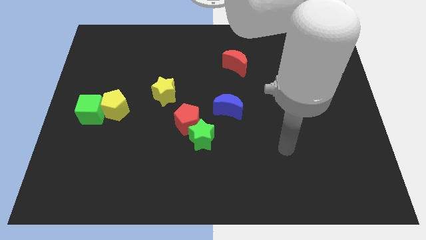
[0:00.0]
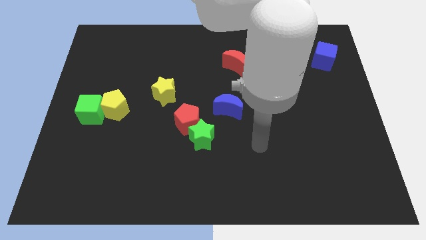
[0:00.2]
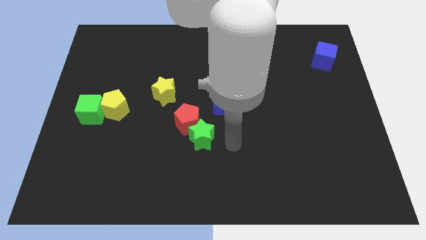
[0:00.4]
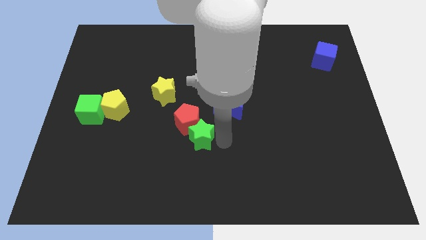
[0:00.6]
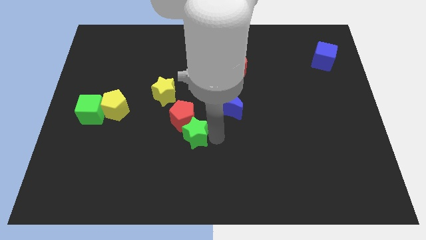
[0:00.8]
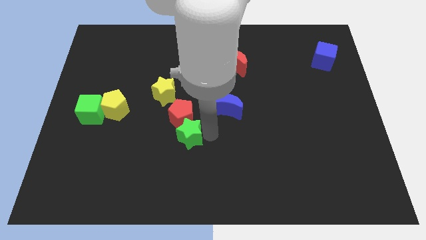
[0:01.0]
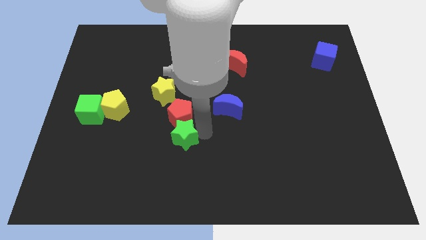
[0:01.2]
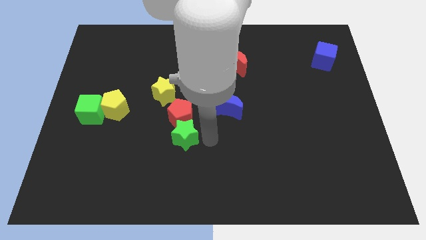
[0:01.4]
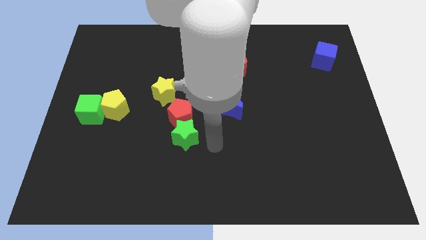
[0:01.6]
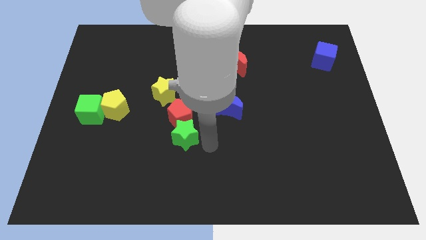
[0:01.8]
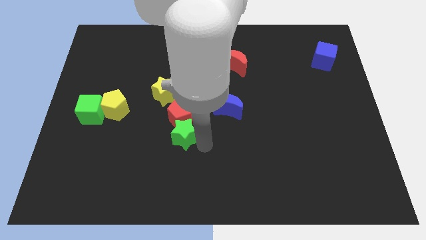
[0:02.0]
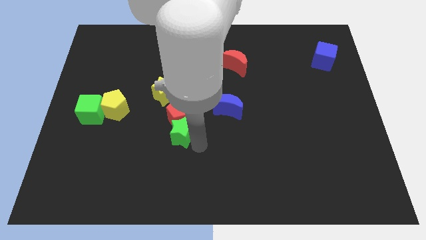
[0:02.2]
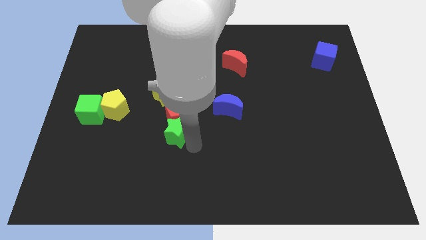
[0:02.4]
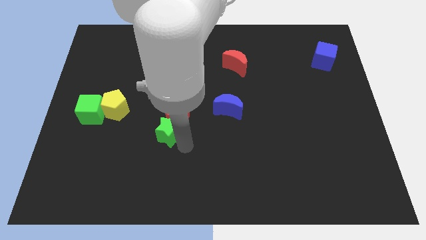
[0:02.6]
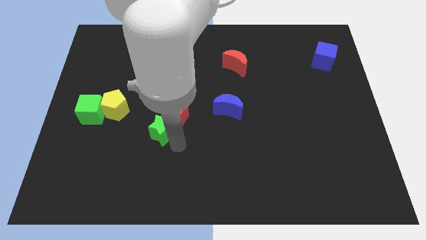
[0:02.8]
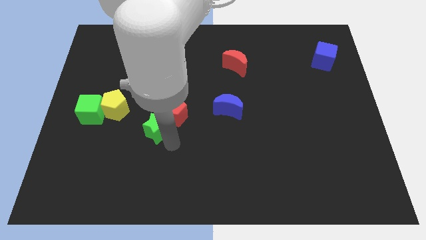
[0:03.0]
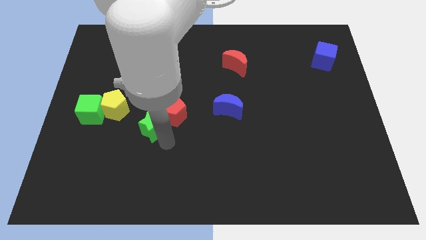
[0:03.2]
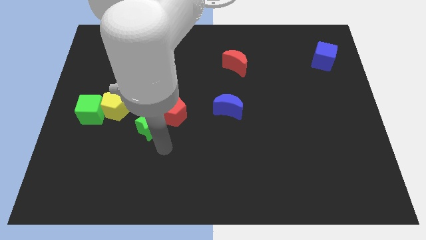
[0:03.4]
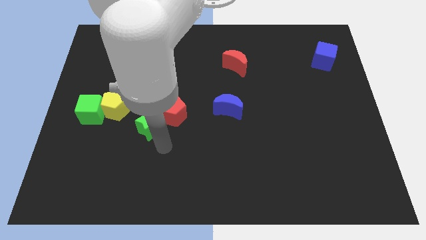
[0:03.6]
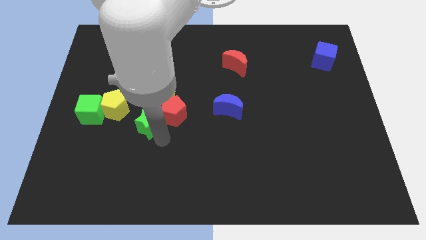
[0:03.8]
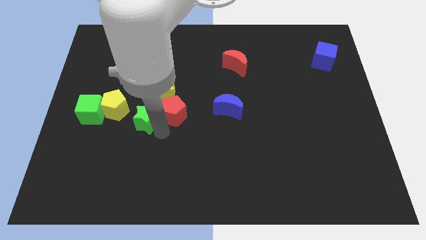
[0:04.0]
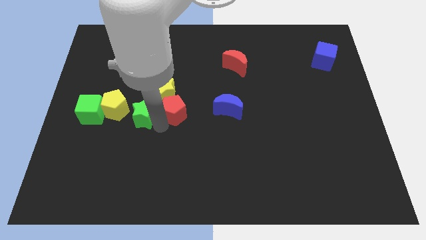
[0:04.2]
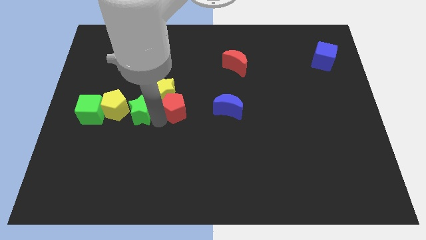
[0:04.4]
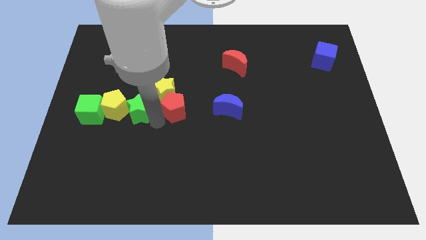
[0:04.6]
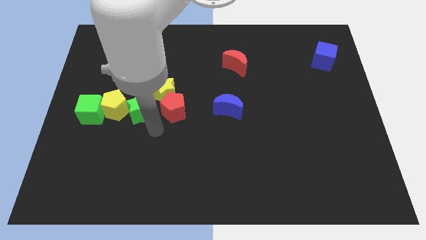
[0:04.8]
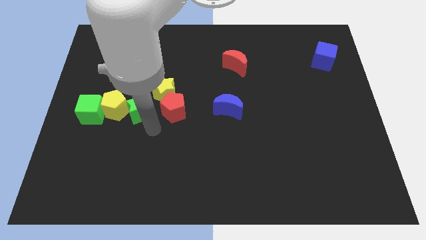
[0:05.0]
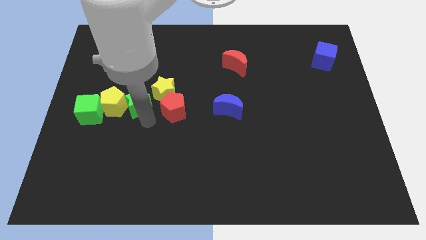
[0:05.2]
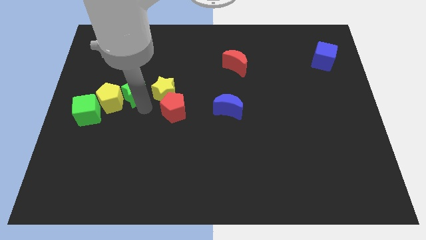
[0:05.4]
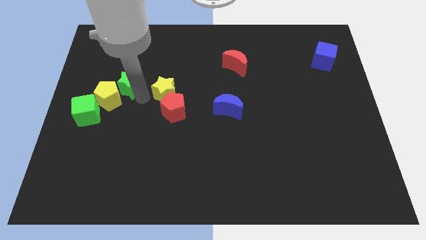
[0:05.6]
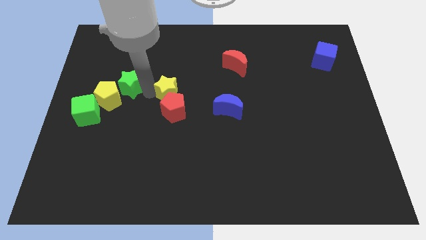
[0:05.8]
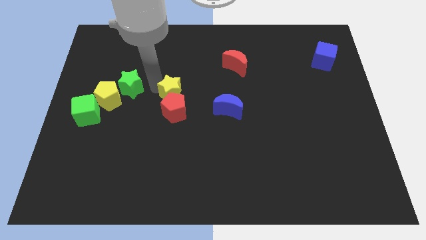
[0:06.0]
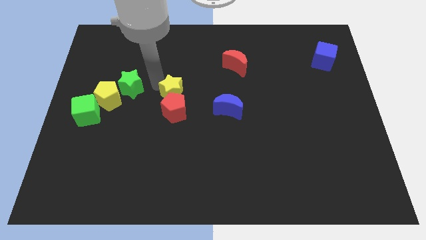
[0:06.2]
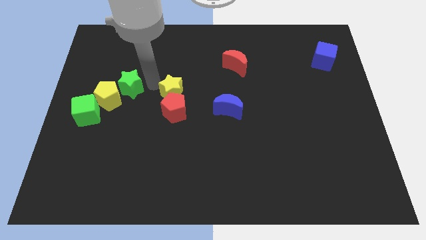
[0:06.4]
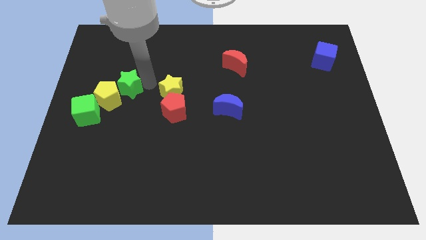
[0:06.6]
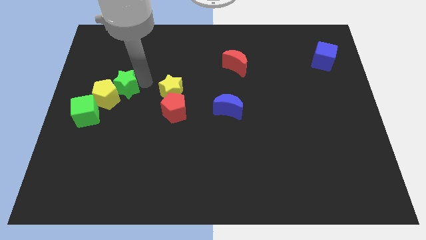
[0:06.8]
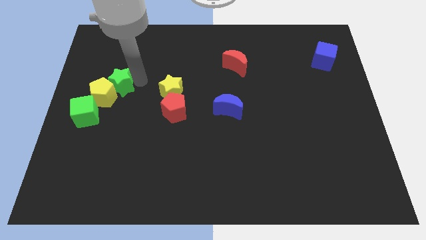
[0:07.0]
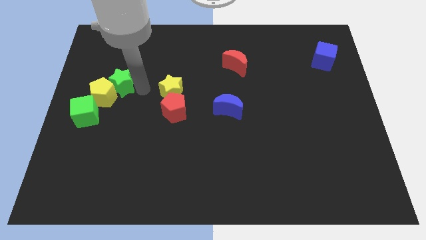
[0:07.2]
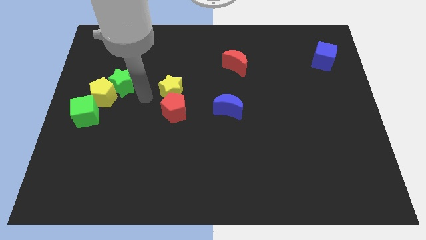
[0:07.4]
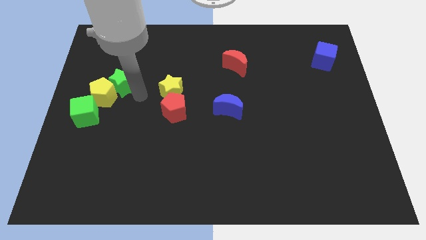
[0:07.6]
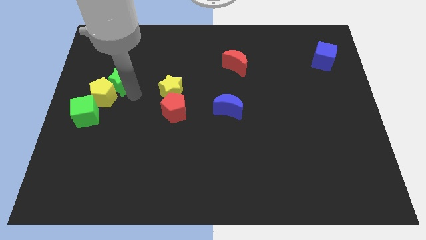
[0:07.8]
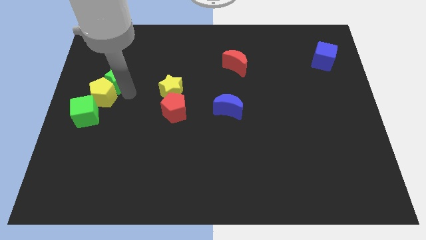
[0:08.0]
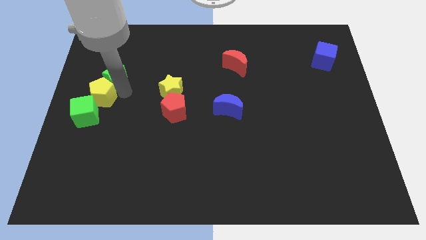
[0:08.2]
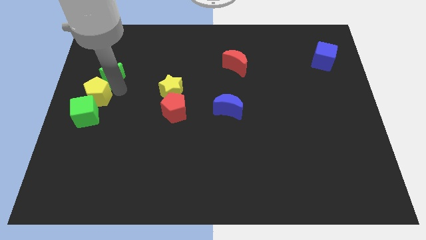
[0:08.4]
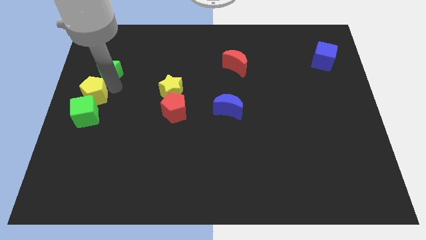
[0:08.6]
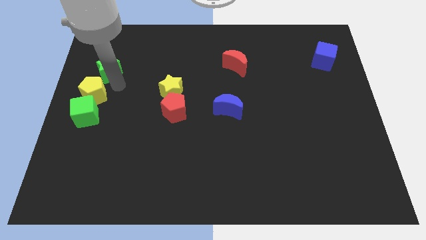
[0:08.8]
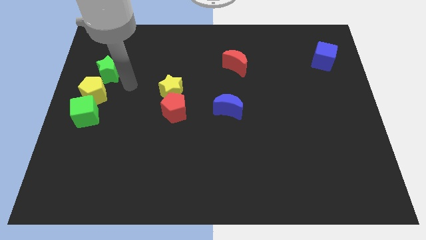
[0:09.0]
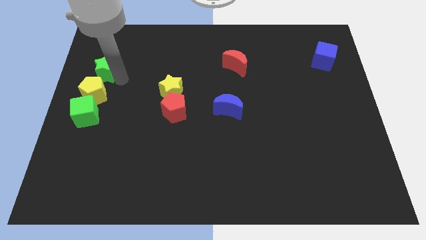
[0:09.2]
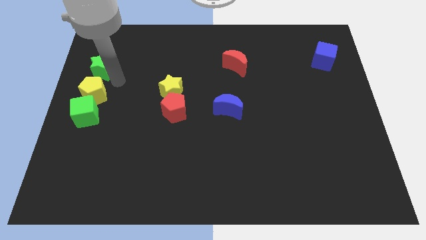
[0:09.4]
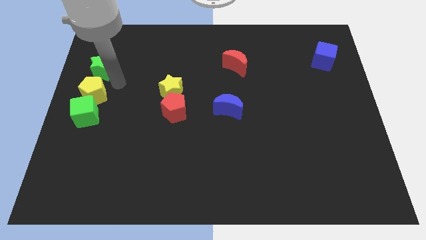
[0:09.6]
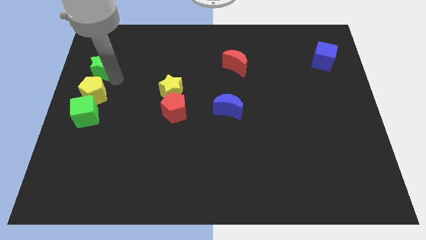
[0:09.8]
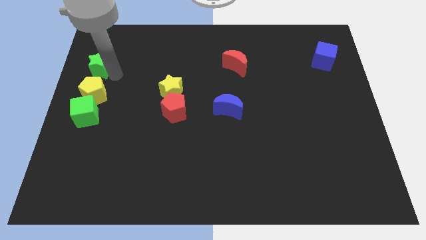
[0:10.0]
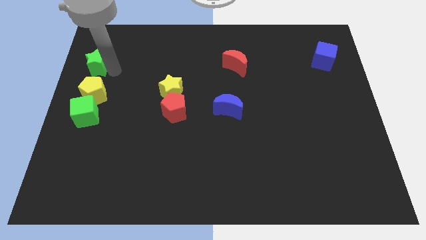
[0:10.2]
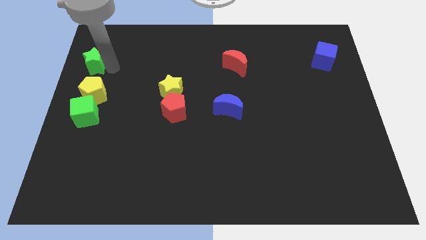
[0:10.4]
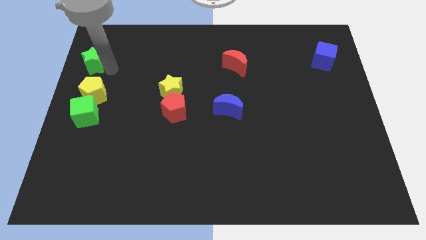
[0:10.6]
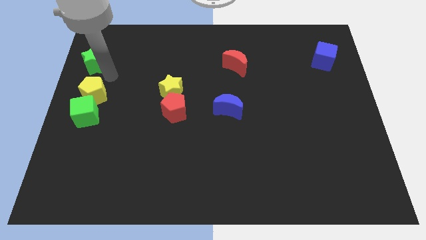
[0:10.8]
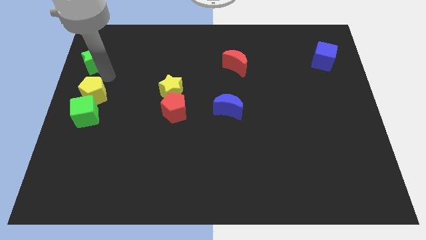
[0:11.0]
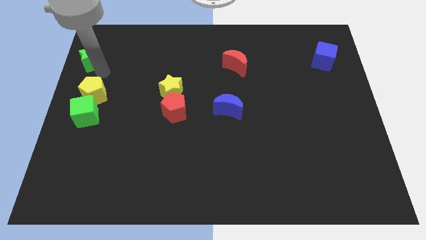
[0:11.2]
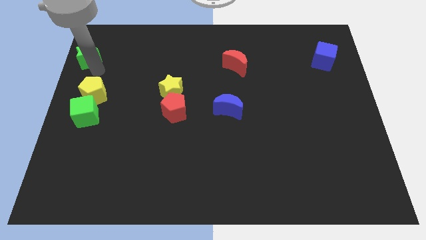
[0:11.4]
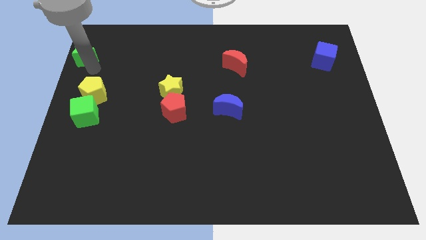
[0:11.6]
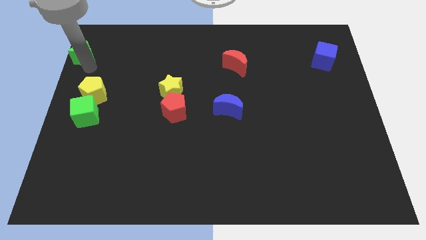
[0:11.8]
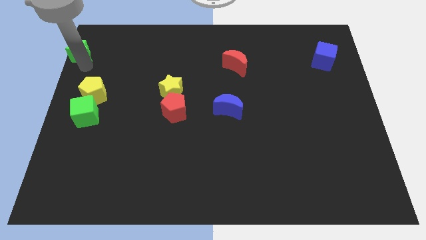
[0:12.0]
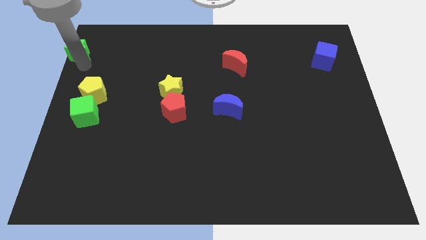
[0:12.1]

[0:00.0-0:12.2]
put the green star to the upper left corner

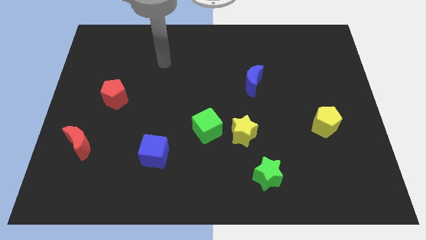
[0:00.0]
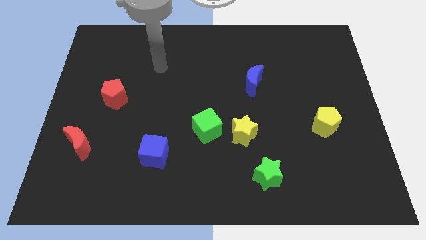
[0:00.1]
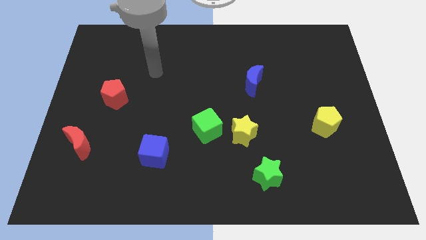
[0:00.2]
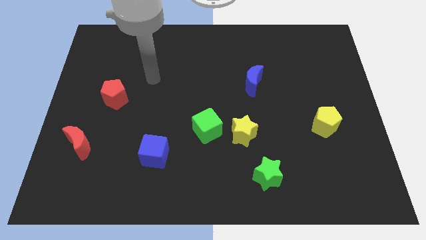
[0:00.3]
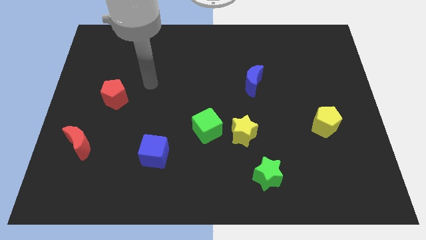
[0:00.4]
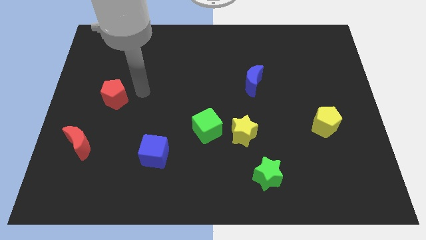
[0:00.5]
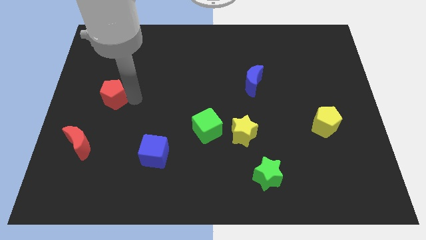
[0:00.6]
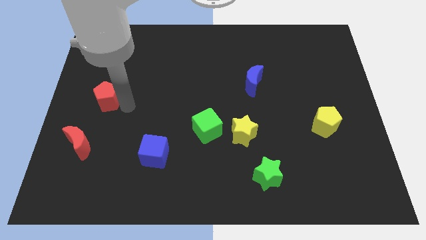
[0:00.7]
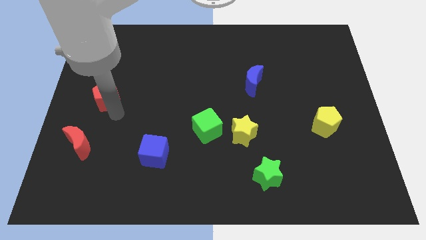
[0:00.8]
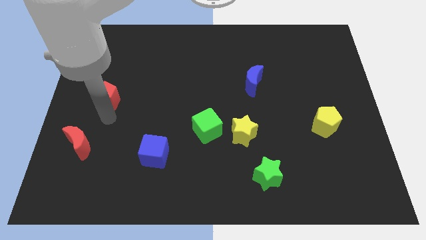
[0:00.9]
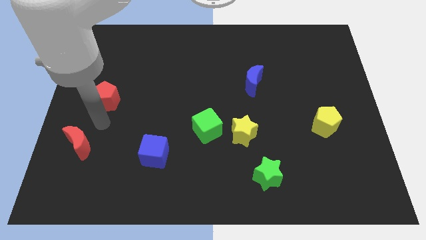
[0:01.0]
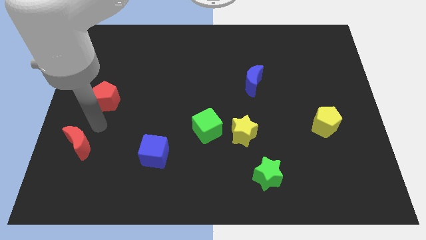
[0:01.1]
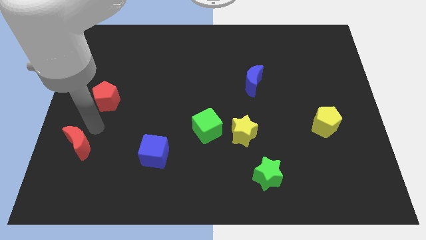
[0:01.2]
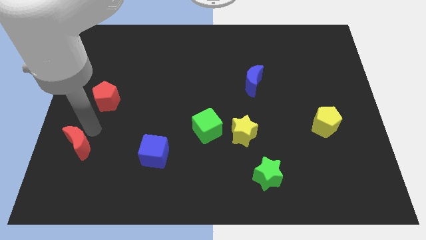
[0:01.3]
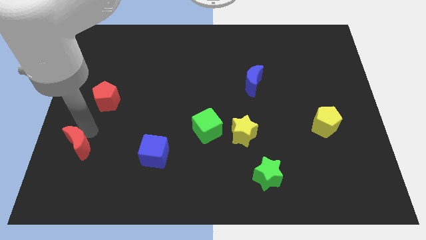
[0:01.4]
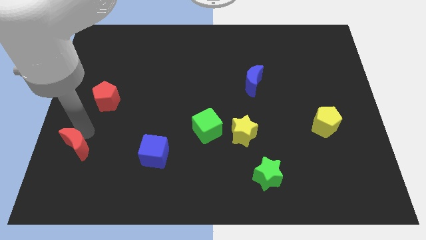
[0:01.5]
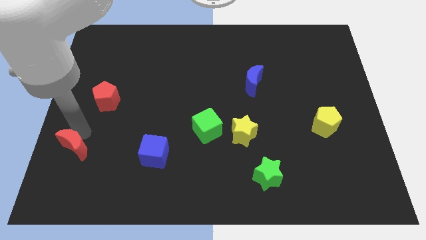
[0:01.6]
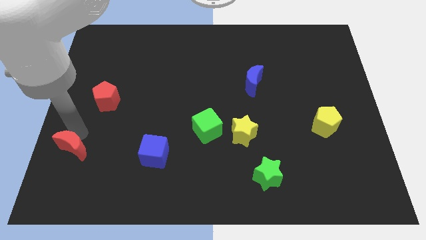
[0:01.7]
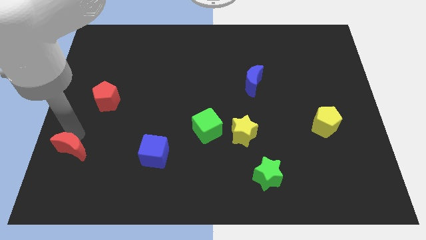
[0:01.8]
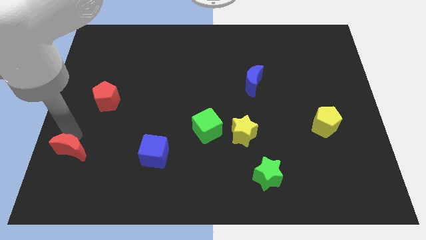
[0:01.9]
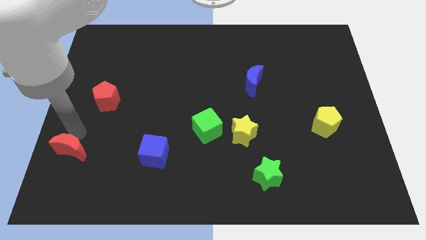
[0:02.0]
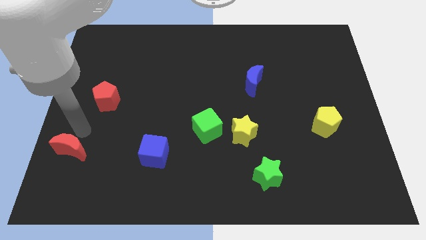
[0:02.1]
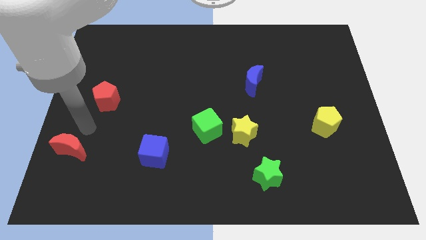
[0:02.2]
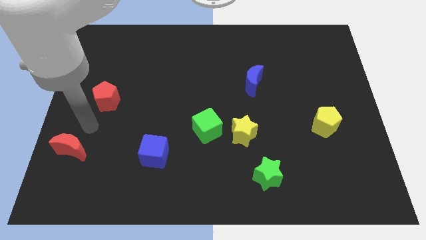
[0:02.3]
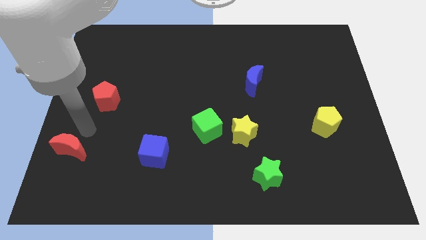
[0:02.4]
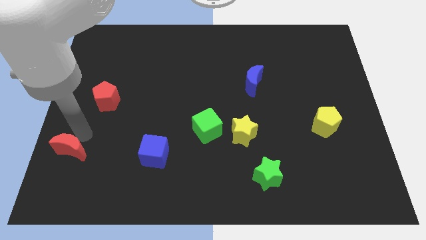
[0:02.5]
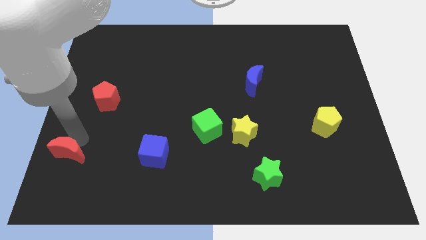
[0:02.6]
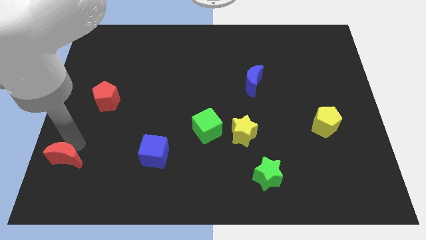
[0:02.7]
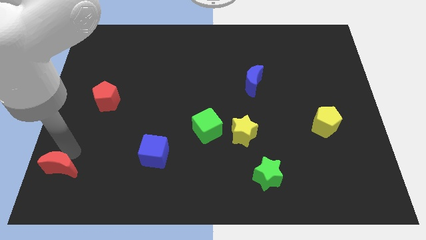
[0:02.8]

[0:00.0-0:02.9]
slide the red moon to the bottom left corner
